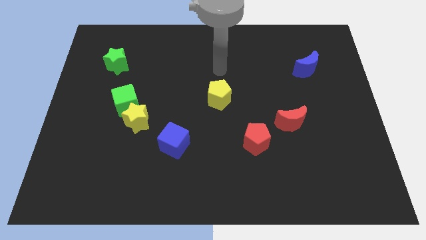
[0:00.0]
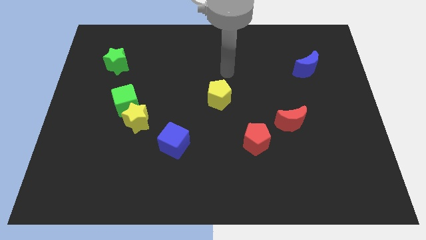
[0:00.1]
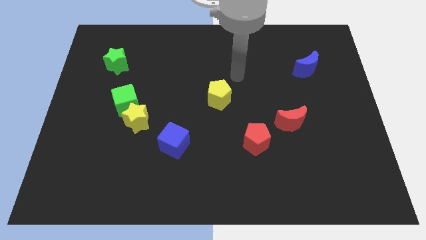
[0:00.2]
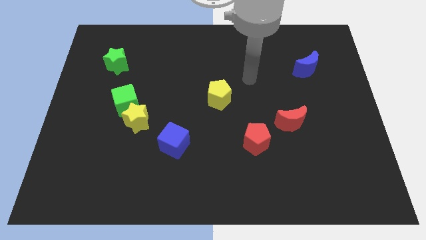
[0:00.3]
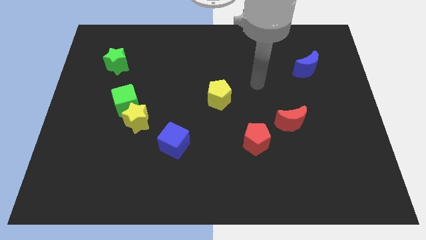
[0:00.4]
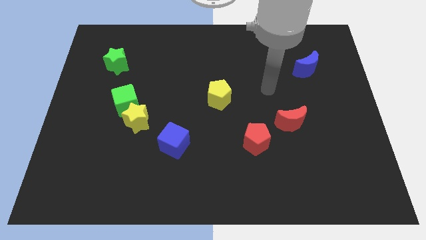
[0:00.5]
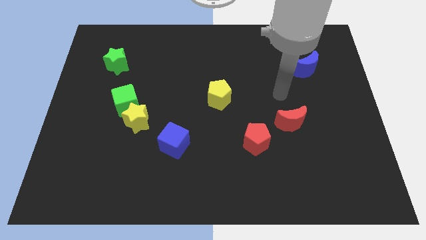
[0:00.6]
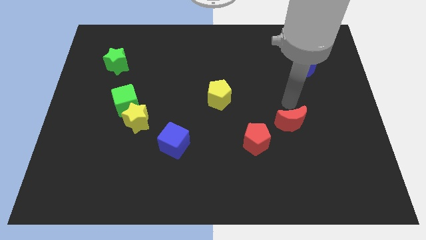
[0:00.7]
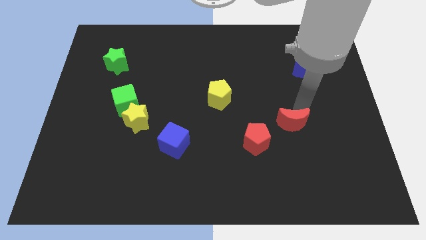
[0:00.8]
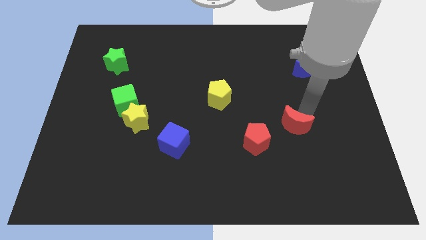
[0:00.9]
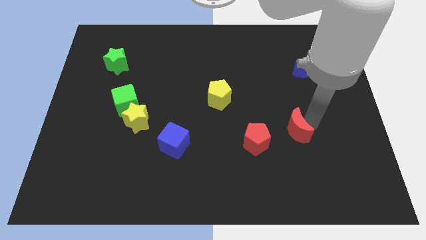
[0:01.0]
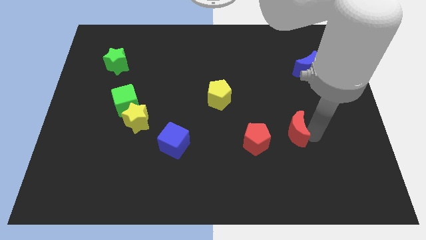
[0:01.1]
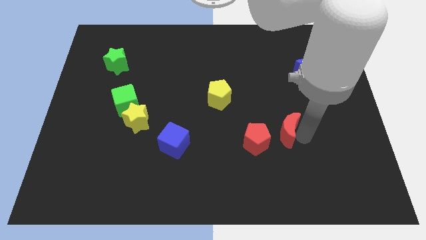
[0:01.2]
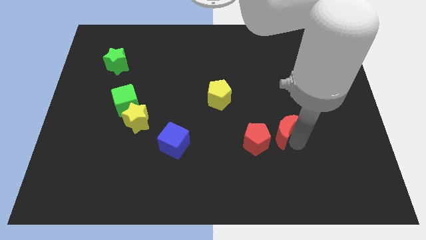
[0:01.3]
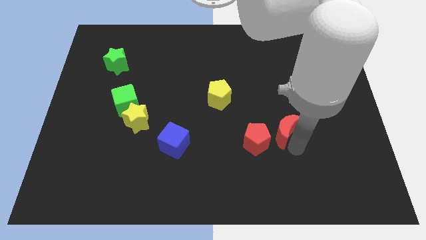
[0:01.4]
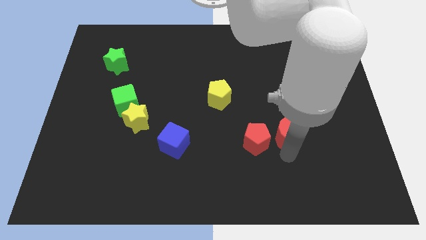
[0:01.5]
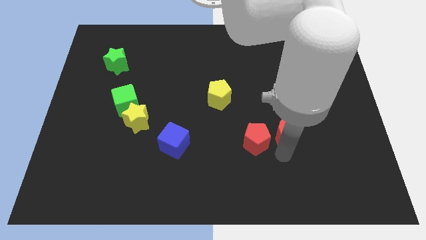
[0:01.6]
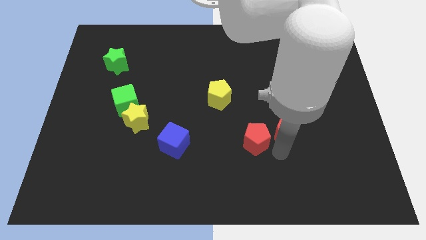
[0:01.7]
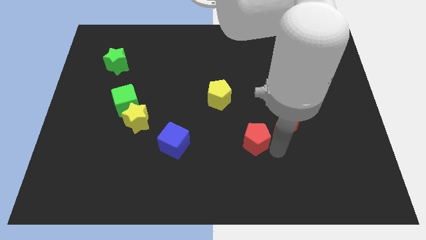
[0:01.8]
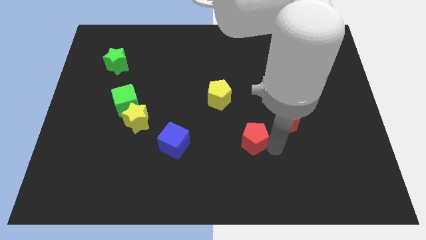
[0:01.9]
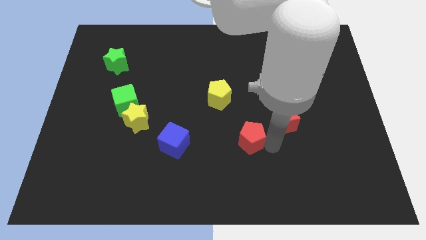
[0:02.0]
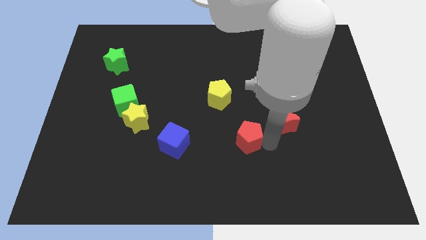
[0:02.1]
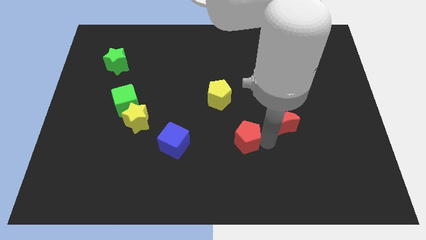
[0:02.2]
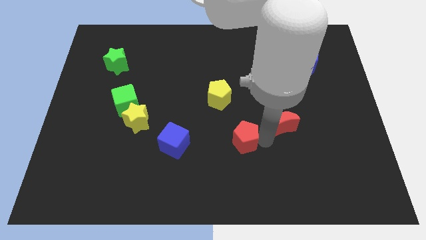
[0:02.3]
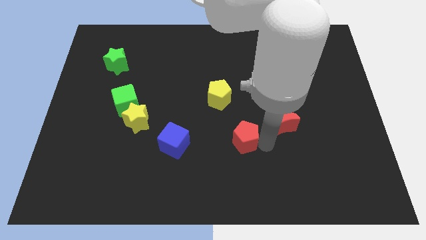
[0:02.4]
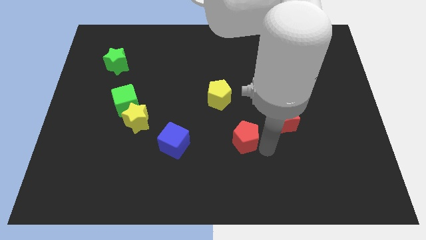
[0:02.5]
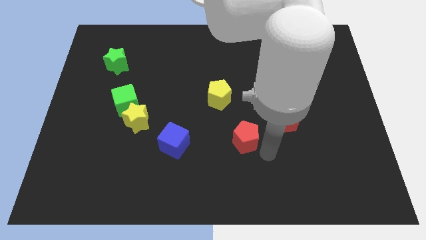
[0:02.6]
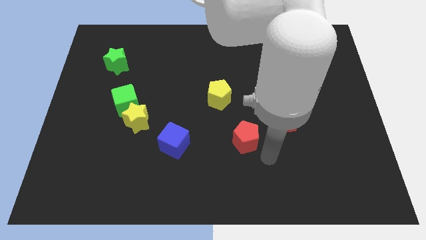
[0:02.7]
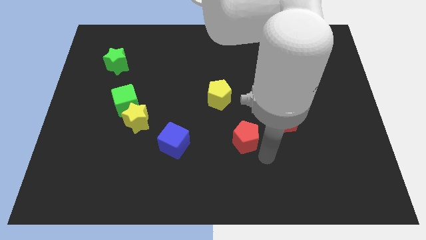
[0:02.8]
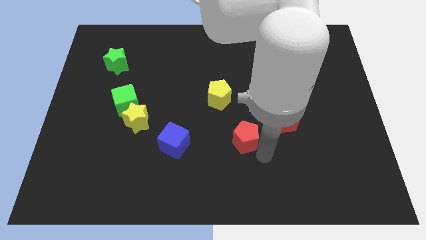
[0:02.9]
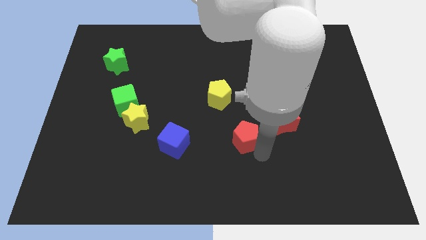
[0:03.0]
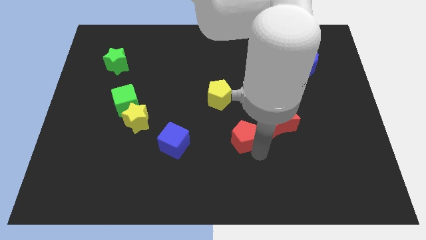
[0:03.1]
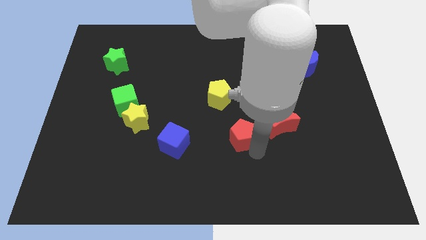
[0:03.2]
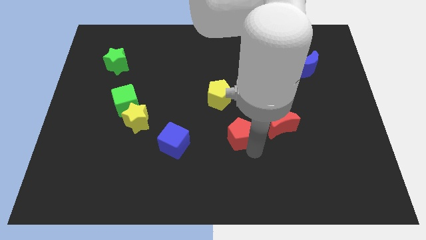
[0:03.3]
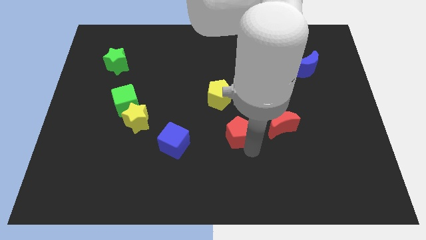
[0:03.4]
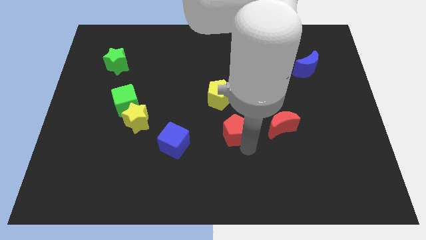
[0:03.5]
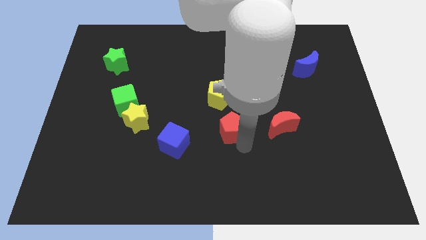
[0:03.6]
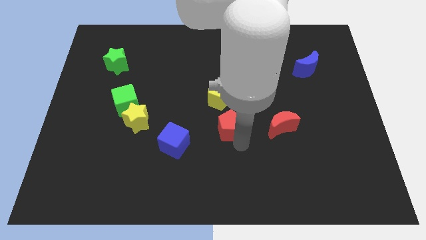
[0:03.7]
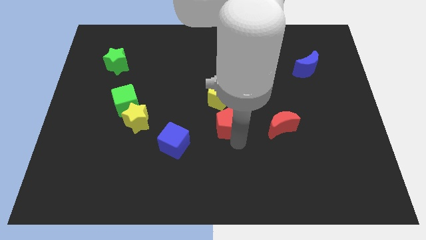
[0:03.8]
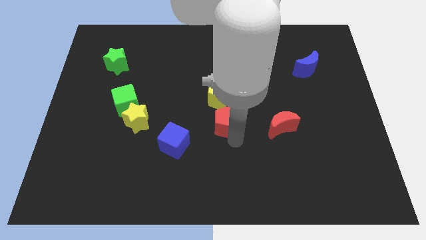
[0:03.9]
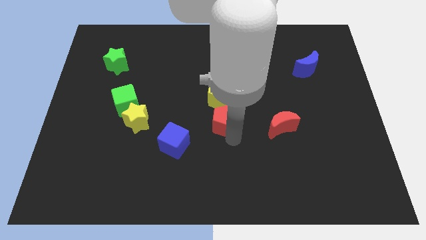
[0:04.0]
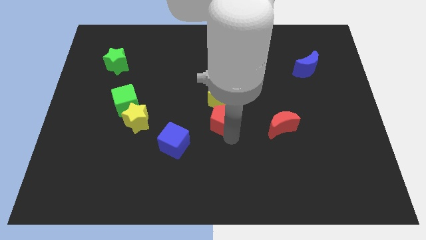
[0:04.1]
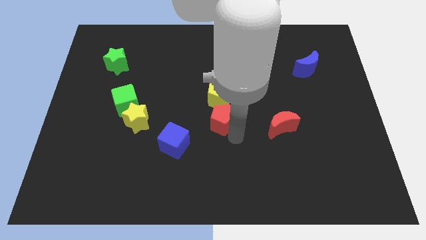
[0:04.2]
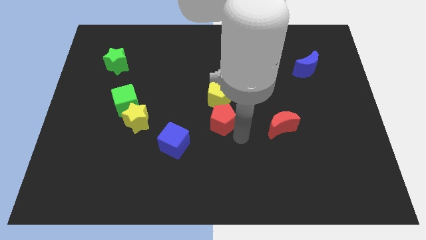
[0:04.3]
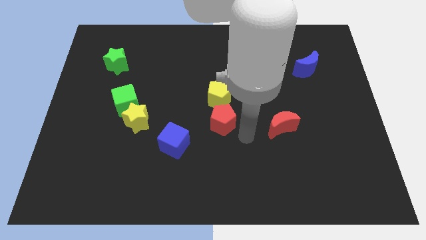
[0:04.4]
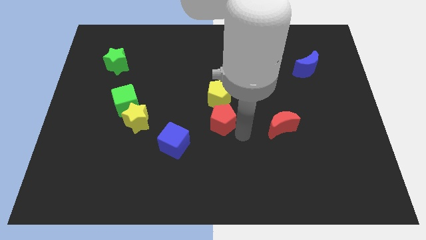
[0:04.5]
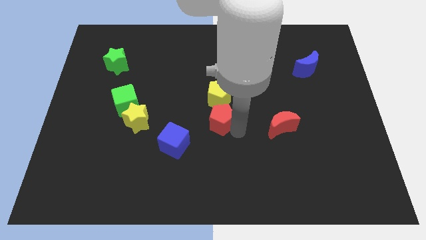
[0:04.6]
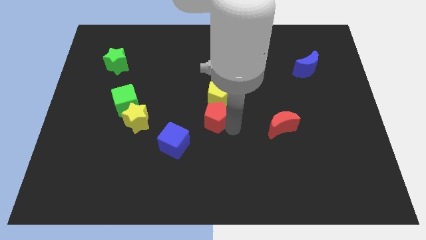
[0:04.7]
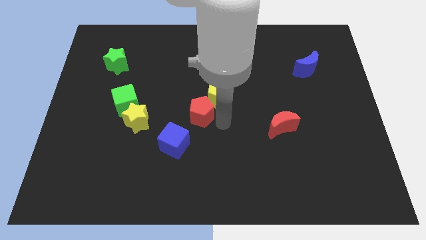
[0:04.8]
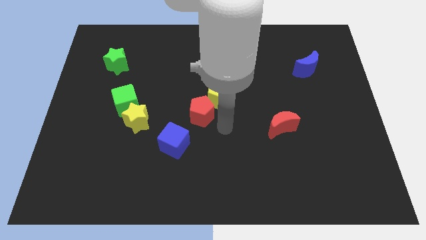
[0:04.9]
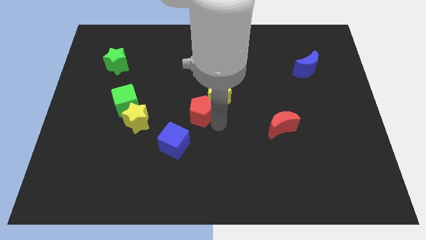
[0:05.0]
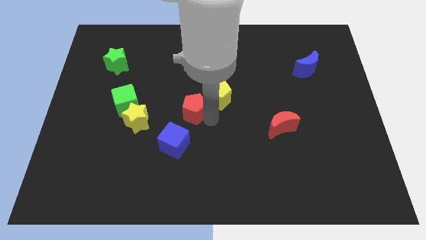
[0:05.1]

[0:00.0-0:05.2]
push the red pentagon just left of the yellow pentagon

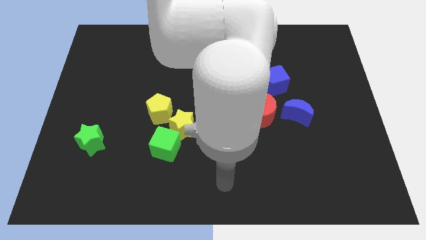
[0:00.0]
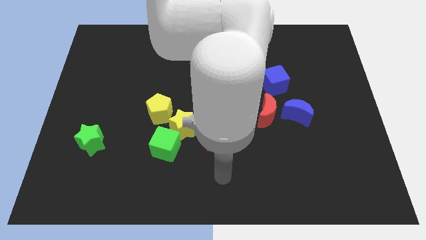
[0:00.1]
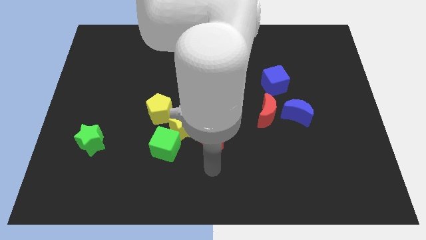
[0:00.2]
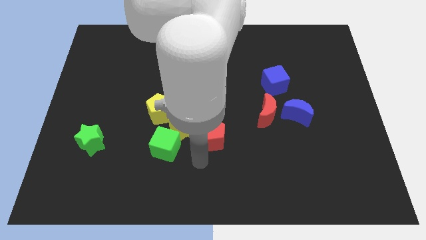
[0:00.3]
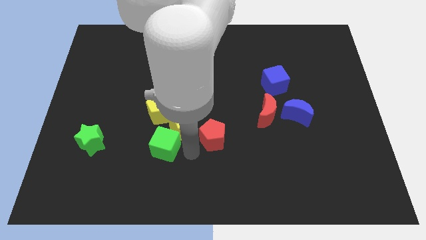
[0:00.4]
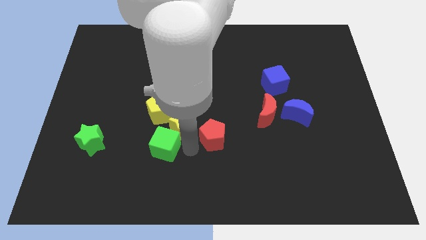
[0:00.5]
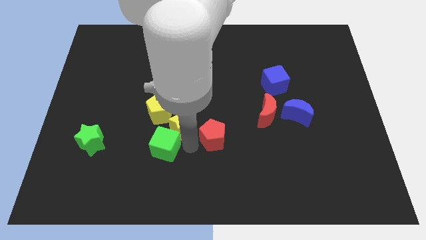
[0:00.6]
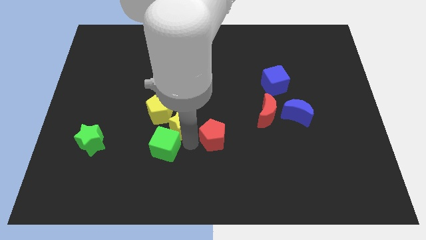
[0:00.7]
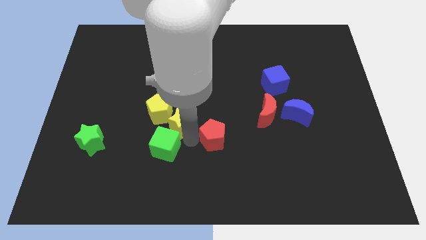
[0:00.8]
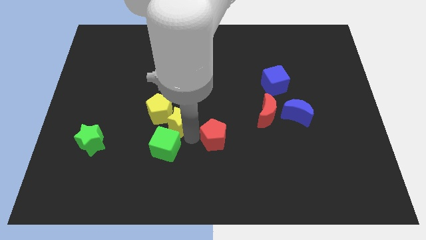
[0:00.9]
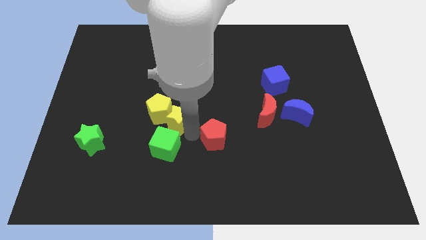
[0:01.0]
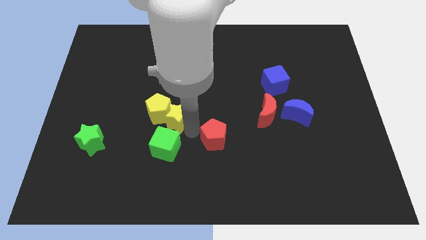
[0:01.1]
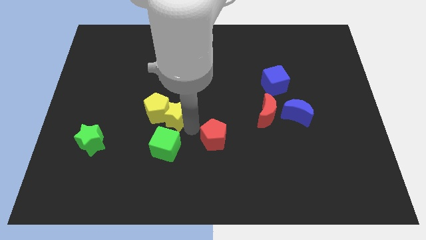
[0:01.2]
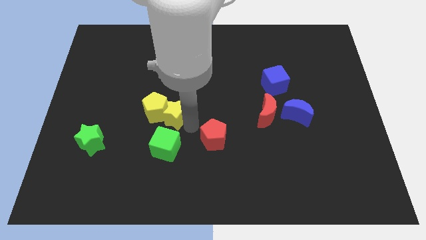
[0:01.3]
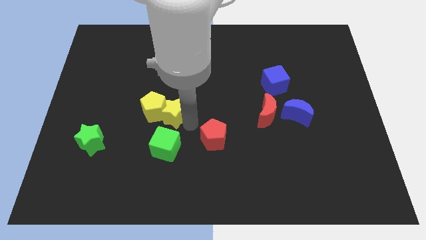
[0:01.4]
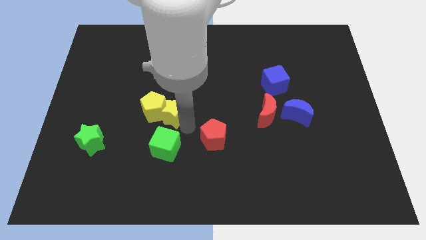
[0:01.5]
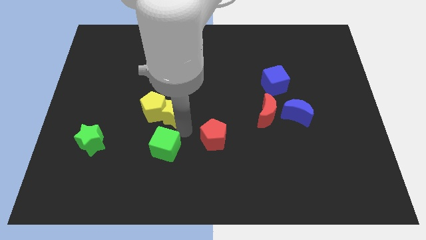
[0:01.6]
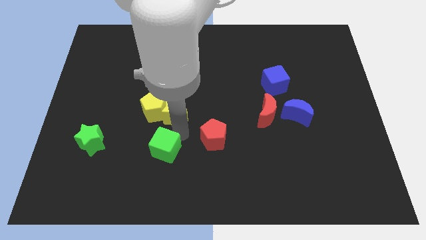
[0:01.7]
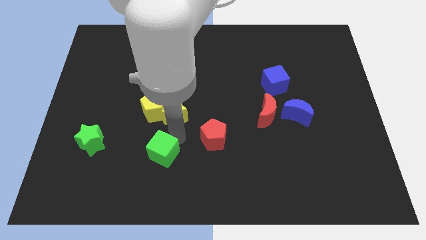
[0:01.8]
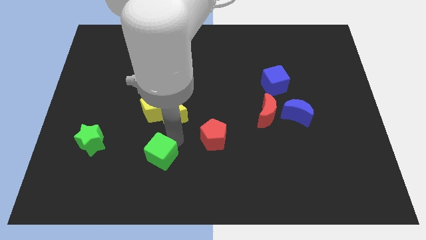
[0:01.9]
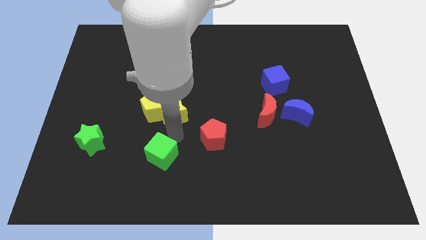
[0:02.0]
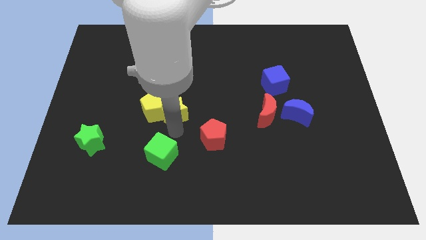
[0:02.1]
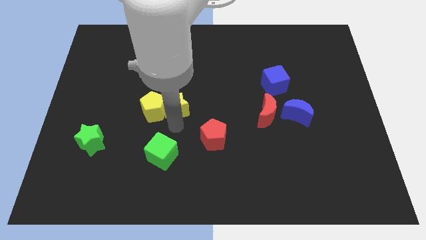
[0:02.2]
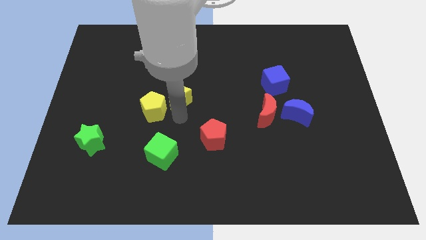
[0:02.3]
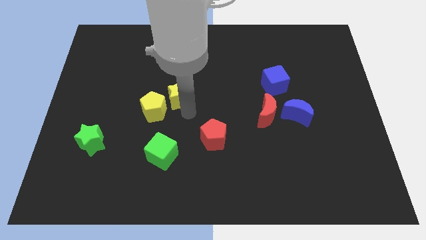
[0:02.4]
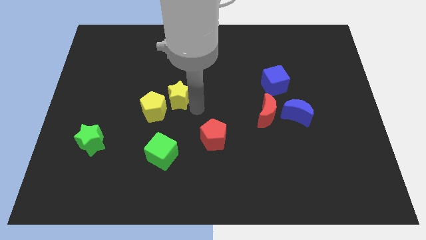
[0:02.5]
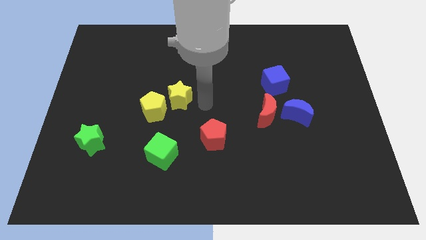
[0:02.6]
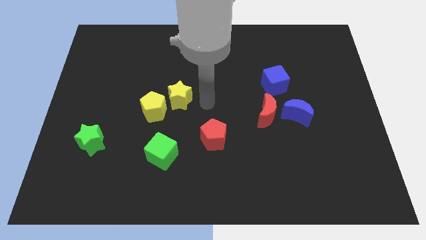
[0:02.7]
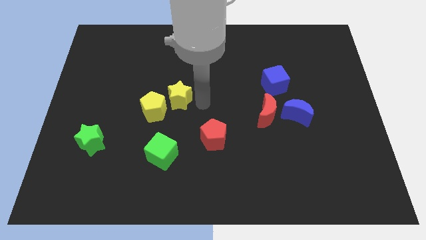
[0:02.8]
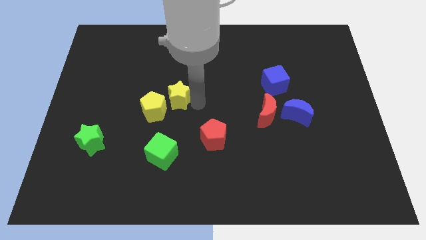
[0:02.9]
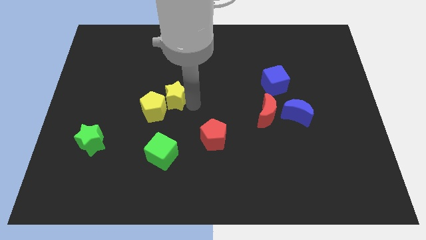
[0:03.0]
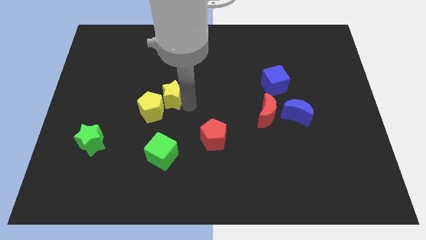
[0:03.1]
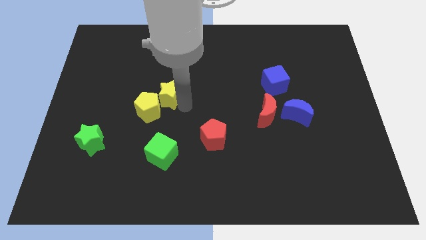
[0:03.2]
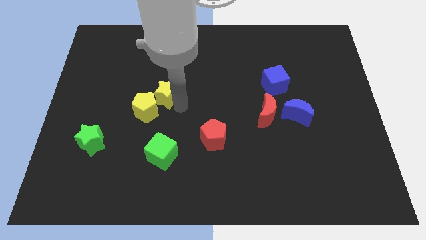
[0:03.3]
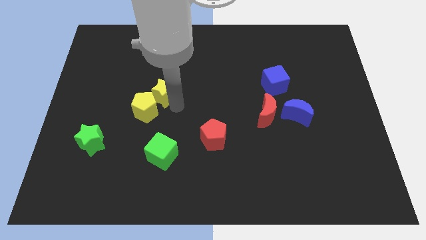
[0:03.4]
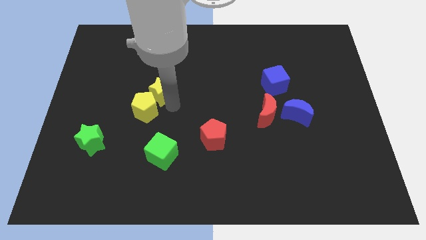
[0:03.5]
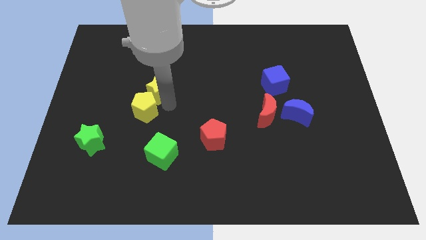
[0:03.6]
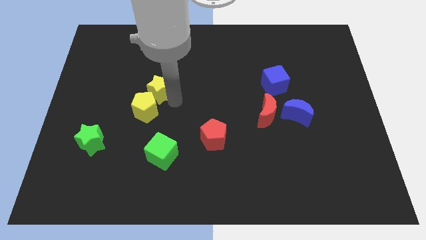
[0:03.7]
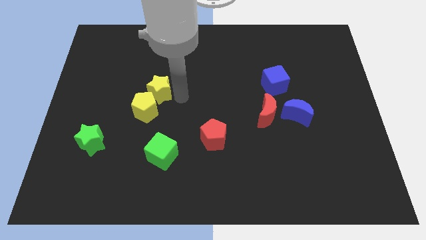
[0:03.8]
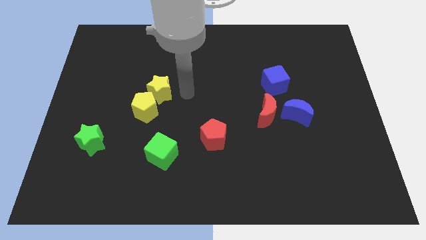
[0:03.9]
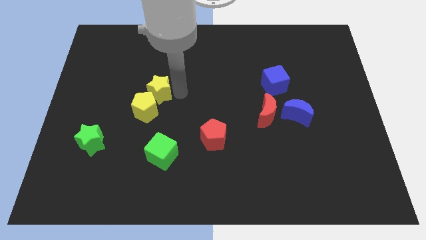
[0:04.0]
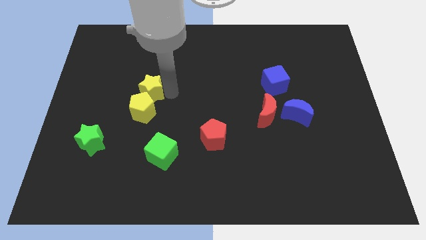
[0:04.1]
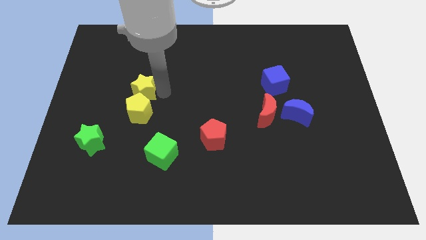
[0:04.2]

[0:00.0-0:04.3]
put the yellow star to the top left side of the yellow pentagon
